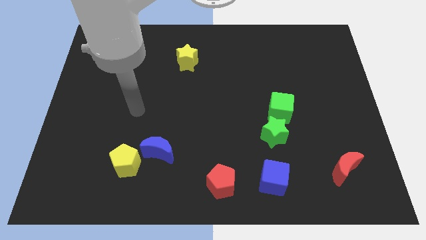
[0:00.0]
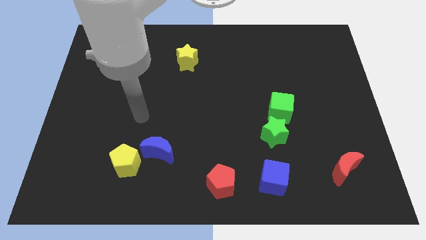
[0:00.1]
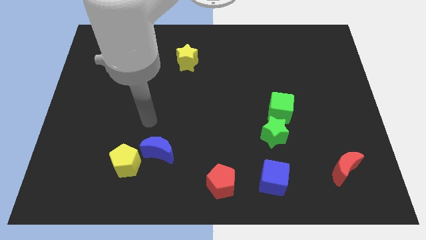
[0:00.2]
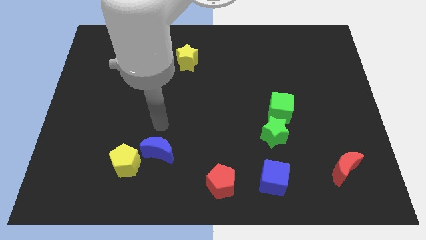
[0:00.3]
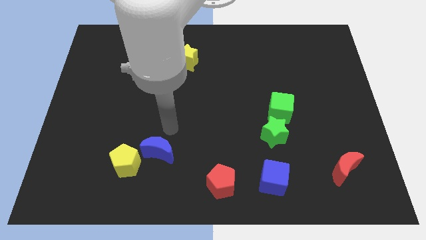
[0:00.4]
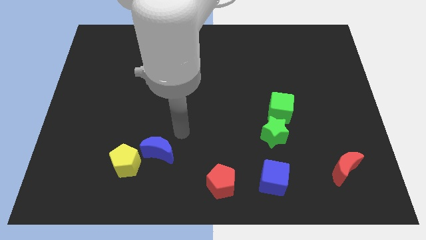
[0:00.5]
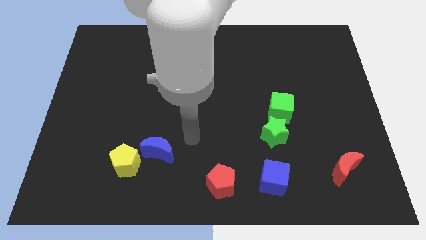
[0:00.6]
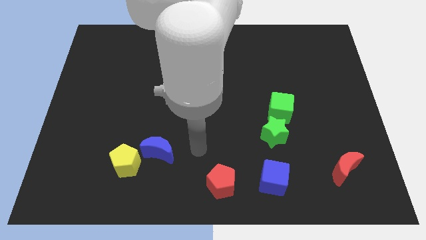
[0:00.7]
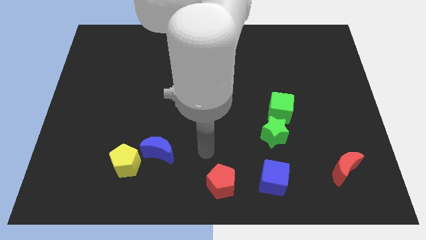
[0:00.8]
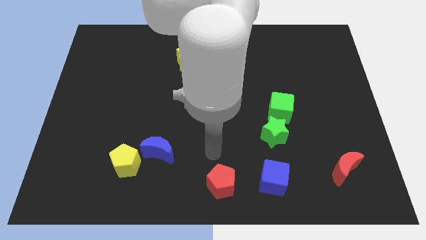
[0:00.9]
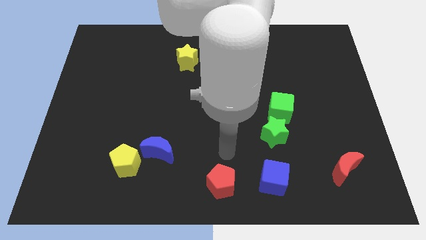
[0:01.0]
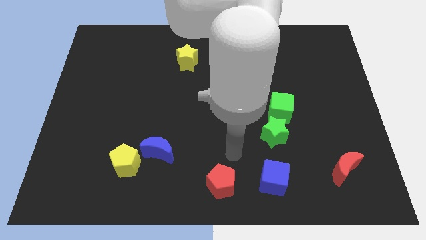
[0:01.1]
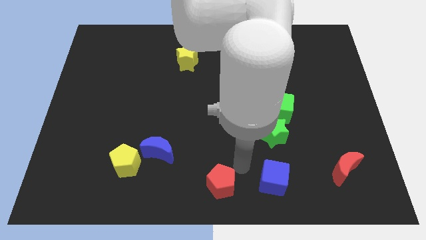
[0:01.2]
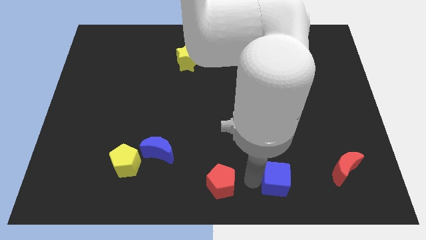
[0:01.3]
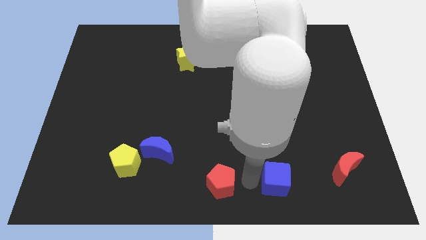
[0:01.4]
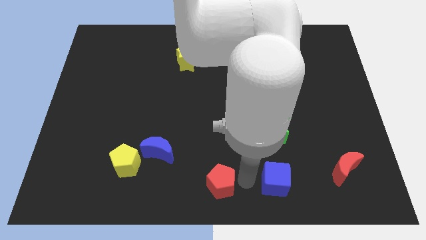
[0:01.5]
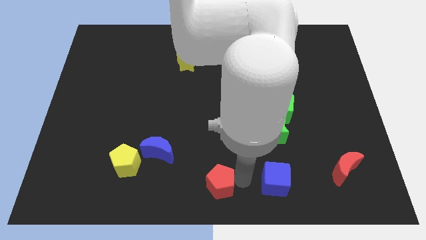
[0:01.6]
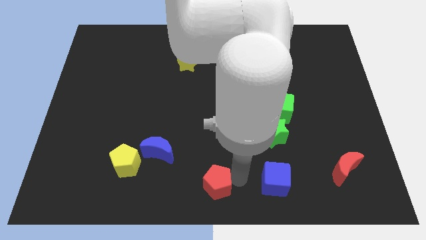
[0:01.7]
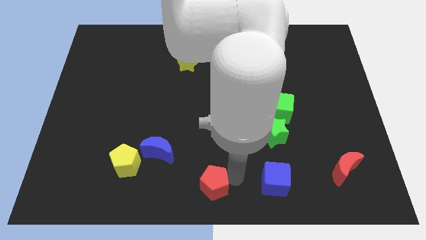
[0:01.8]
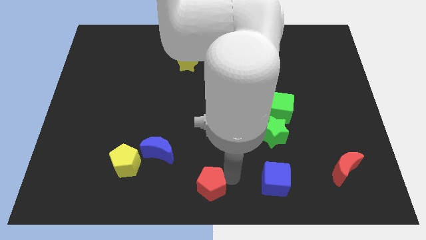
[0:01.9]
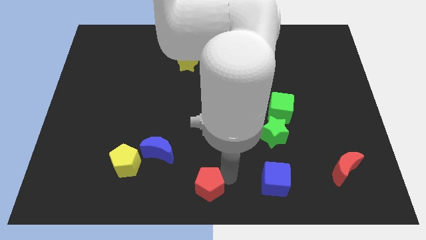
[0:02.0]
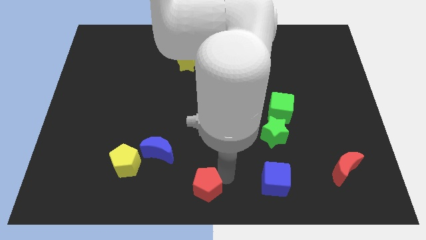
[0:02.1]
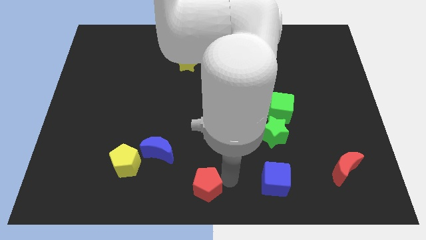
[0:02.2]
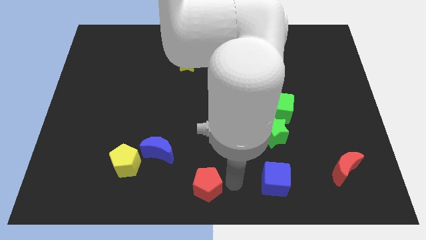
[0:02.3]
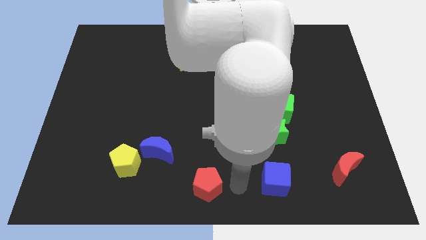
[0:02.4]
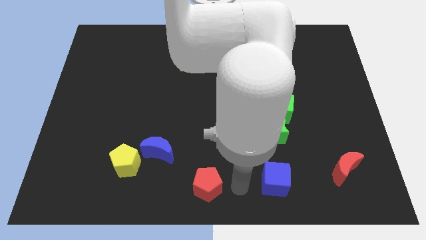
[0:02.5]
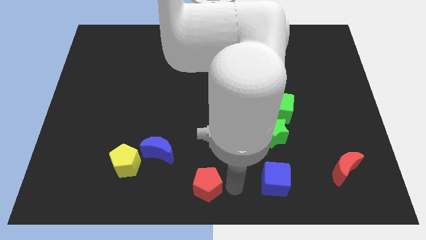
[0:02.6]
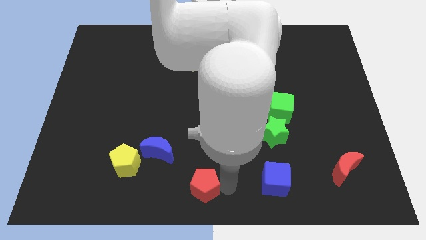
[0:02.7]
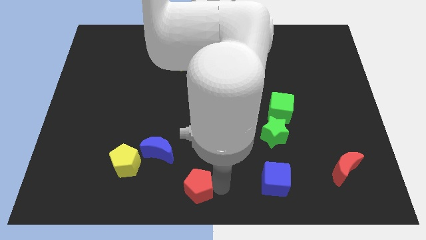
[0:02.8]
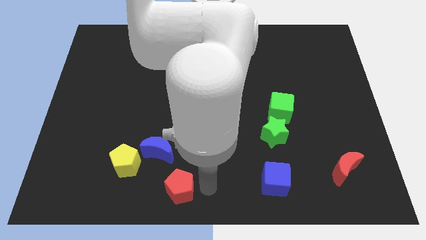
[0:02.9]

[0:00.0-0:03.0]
slide the red pentagon left a bit

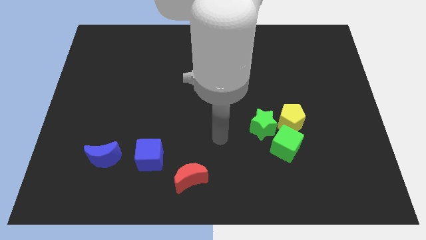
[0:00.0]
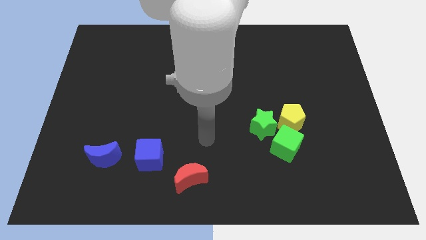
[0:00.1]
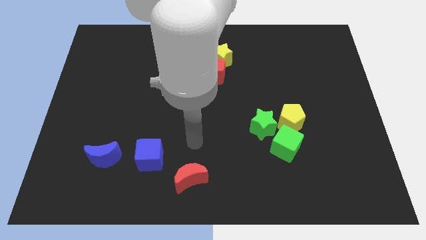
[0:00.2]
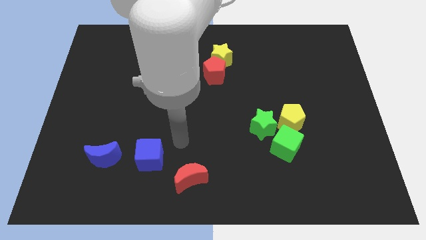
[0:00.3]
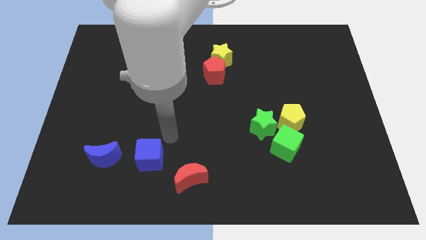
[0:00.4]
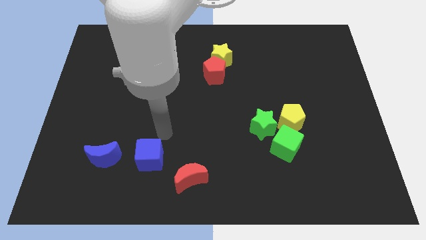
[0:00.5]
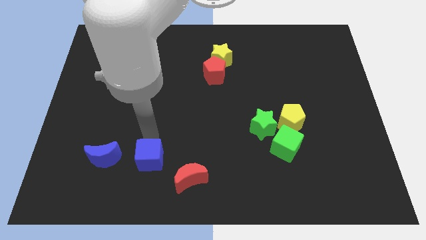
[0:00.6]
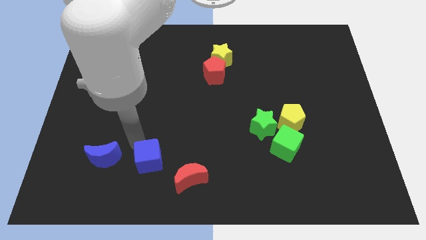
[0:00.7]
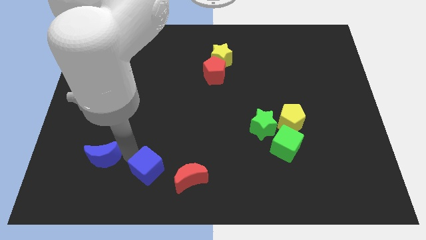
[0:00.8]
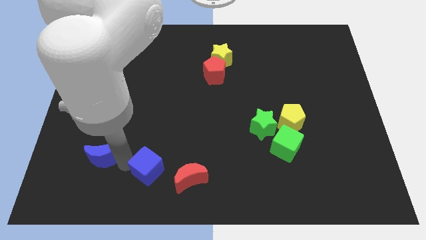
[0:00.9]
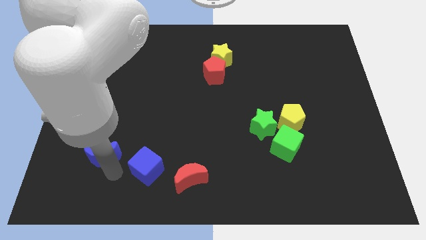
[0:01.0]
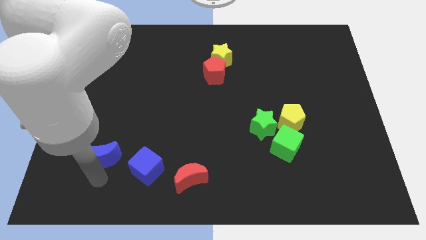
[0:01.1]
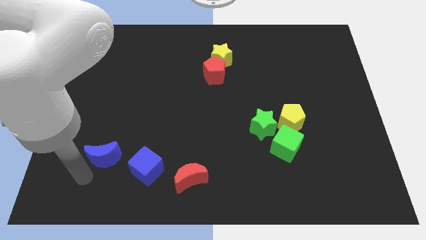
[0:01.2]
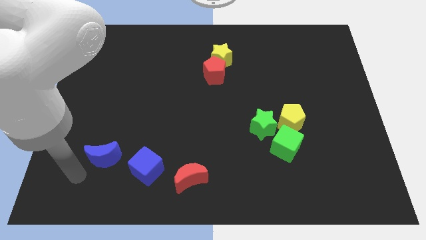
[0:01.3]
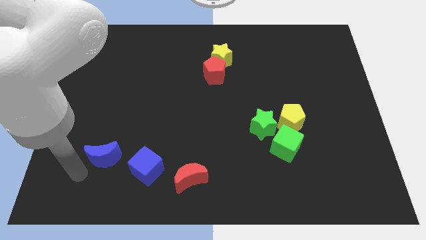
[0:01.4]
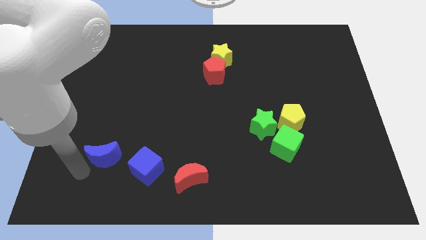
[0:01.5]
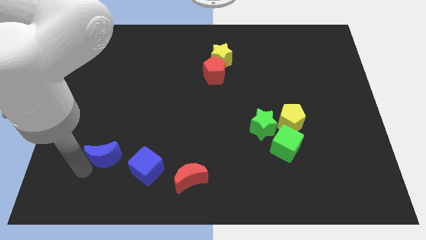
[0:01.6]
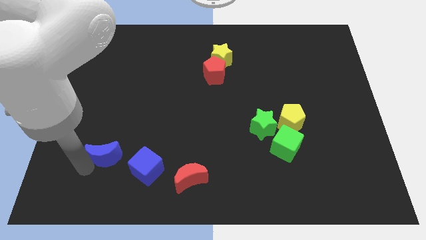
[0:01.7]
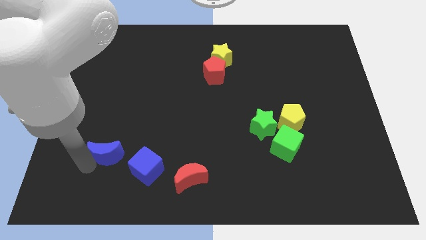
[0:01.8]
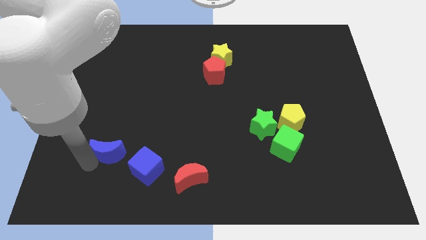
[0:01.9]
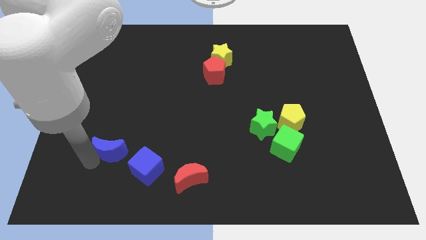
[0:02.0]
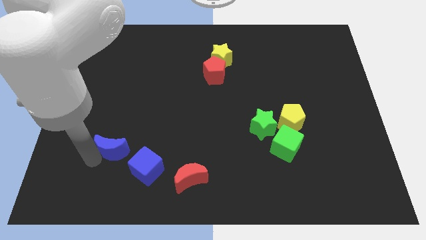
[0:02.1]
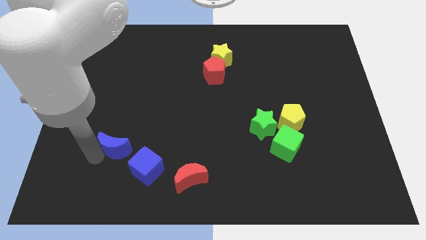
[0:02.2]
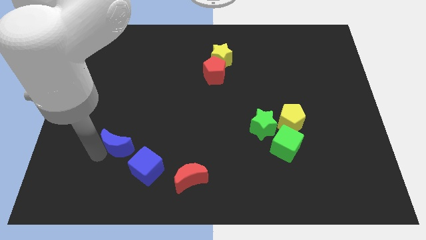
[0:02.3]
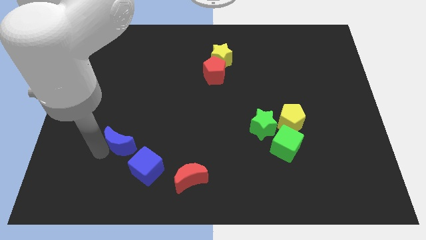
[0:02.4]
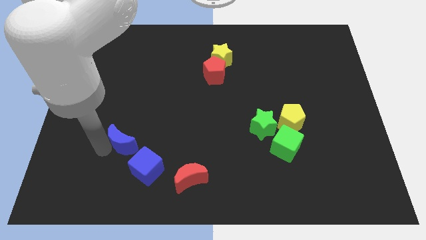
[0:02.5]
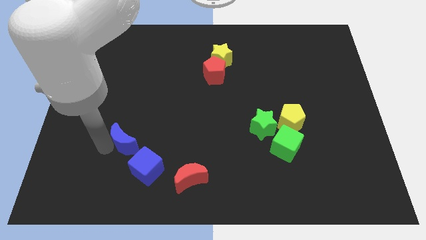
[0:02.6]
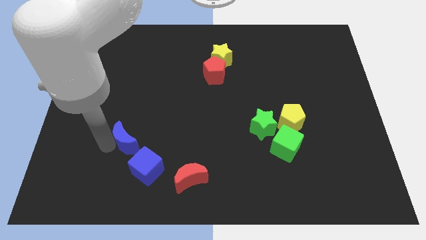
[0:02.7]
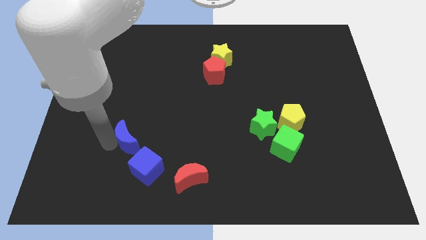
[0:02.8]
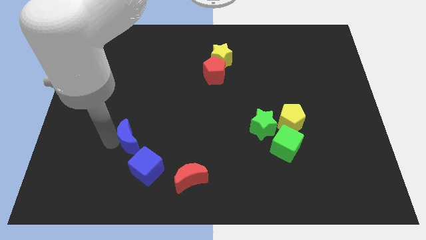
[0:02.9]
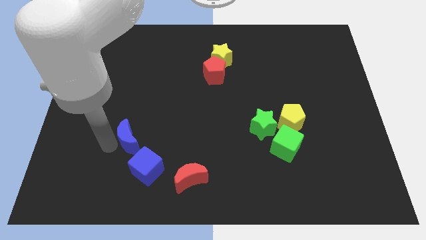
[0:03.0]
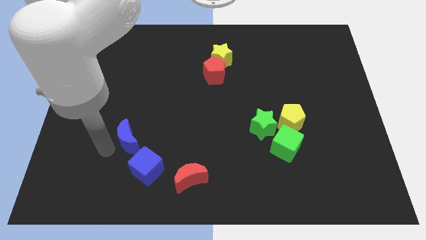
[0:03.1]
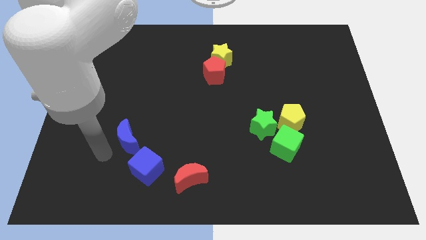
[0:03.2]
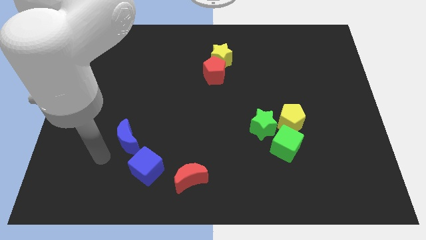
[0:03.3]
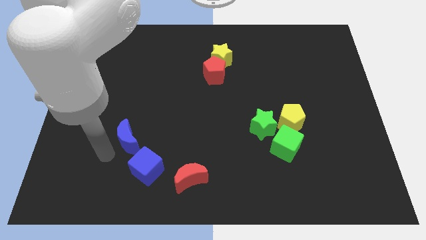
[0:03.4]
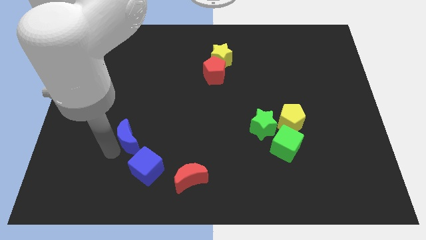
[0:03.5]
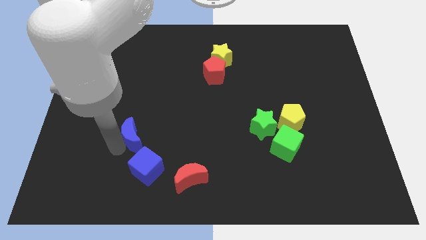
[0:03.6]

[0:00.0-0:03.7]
push the blue moon upwards and right a little

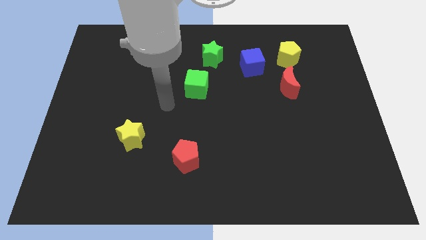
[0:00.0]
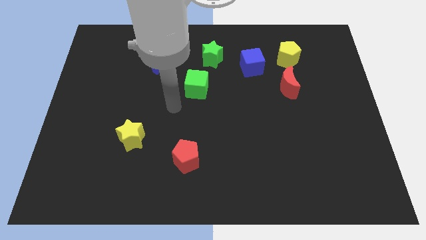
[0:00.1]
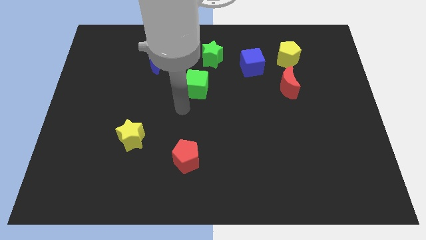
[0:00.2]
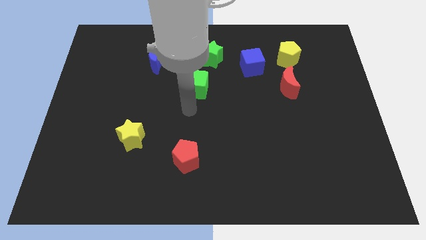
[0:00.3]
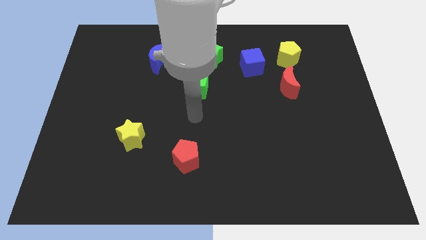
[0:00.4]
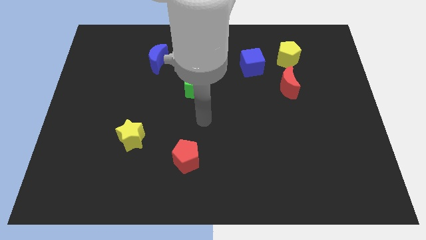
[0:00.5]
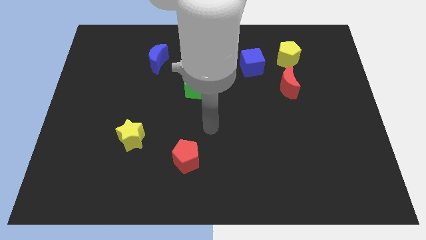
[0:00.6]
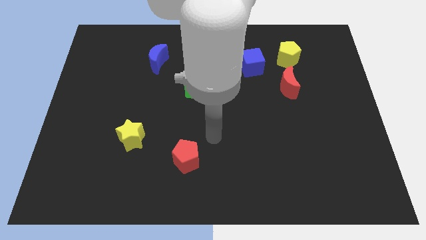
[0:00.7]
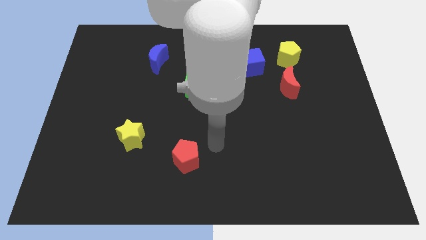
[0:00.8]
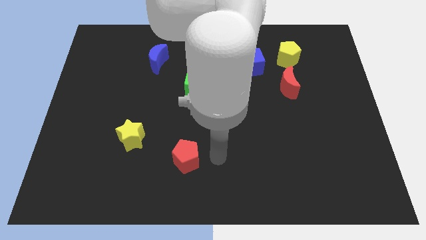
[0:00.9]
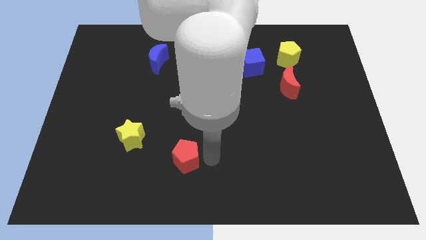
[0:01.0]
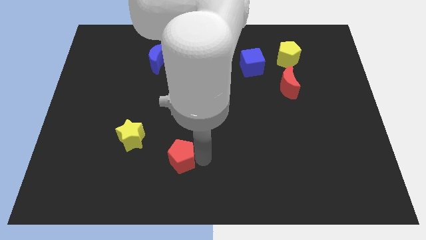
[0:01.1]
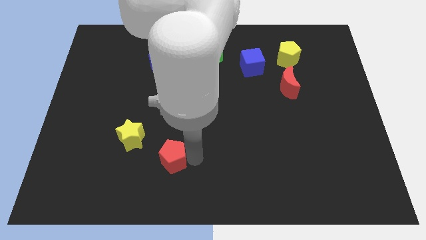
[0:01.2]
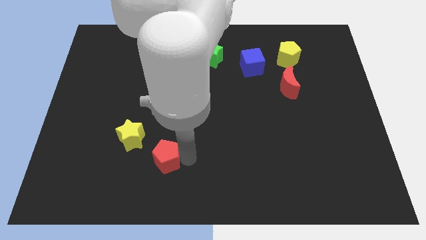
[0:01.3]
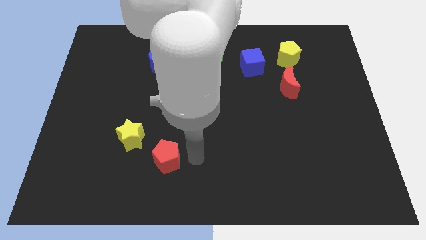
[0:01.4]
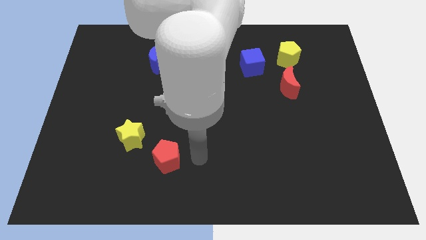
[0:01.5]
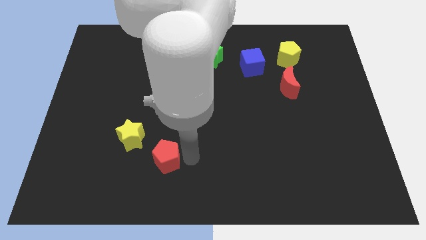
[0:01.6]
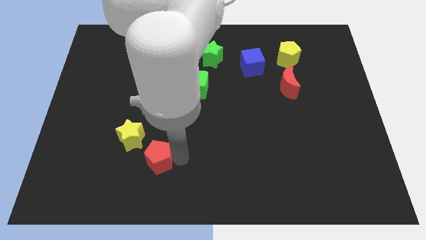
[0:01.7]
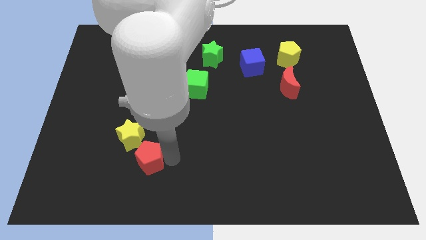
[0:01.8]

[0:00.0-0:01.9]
slide the red pentagon left somewhat
